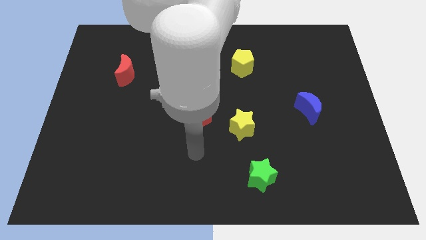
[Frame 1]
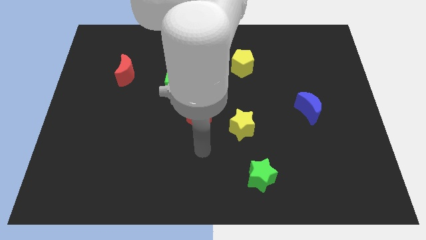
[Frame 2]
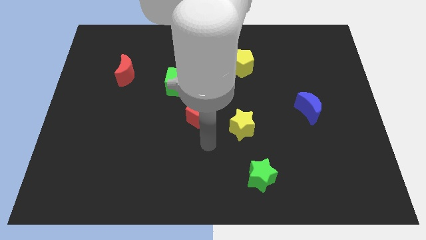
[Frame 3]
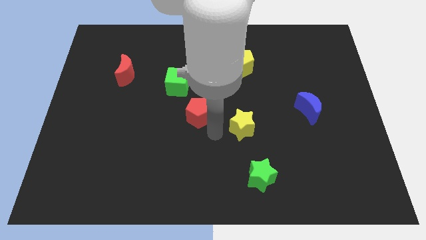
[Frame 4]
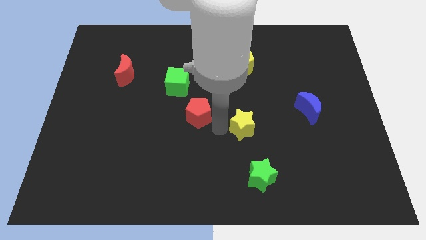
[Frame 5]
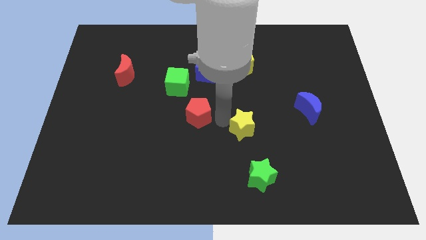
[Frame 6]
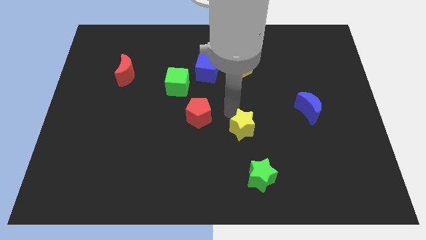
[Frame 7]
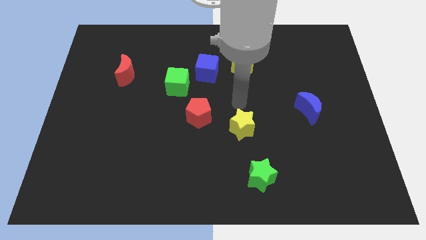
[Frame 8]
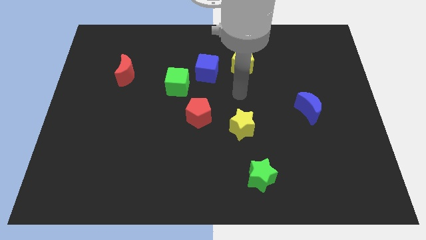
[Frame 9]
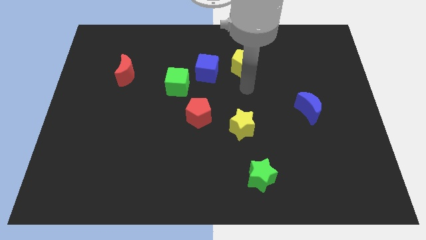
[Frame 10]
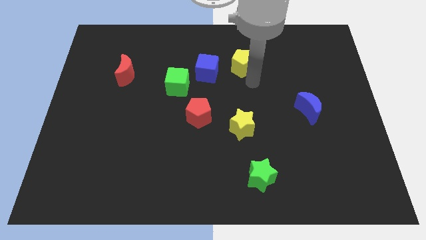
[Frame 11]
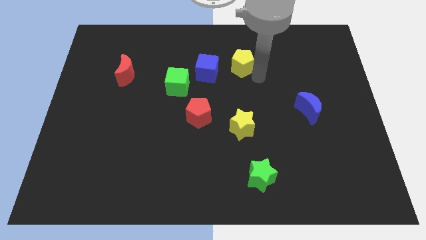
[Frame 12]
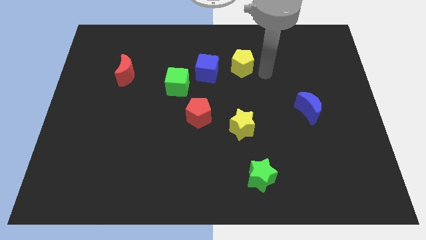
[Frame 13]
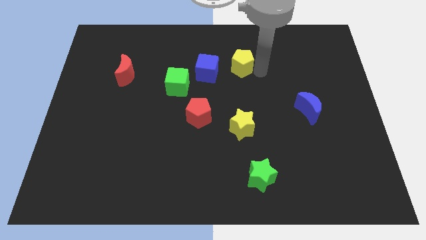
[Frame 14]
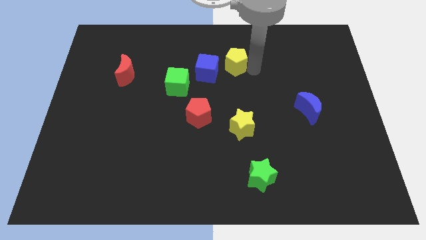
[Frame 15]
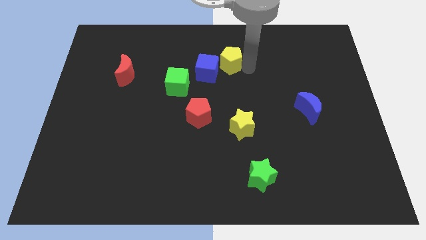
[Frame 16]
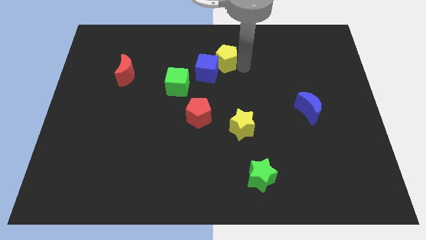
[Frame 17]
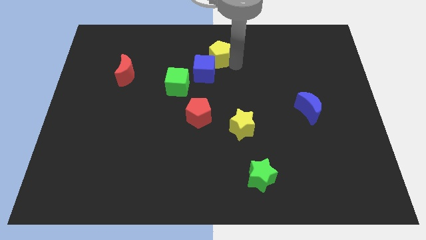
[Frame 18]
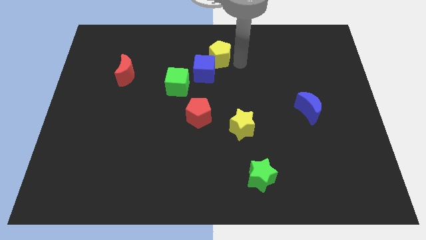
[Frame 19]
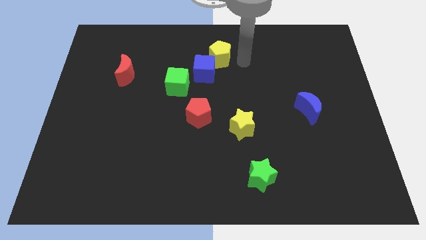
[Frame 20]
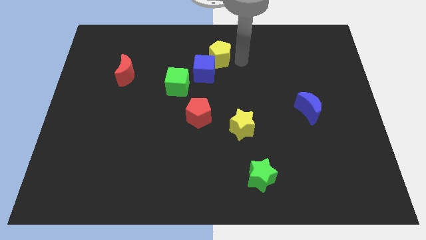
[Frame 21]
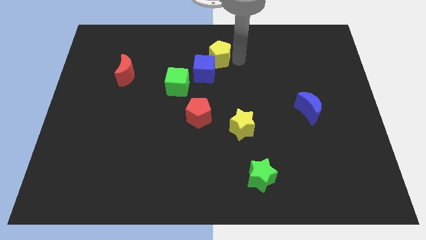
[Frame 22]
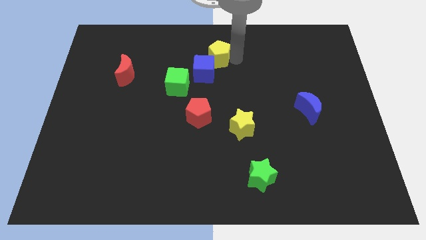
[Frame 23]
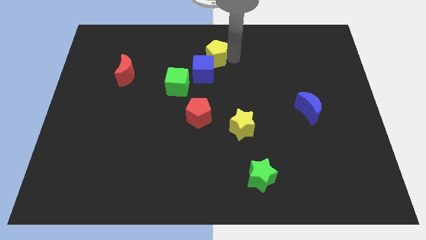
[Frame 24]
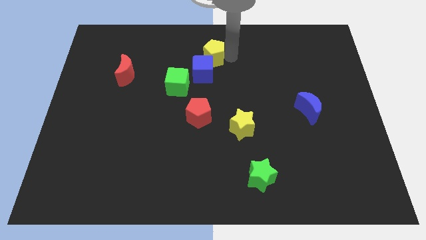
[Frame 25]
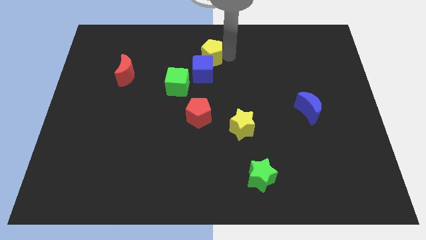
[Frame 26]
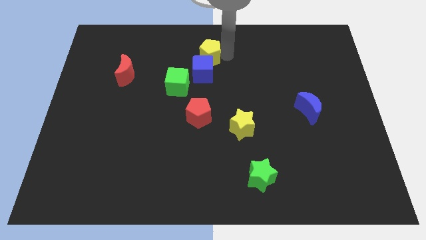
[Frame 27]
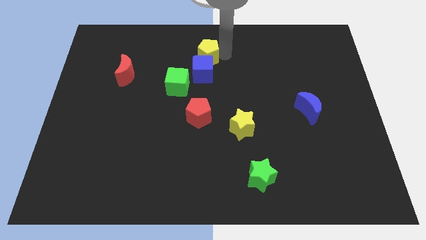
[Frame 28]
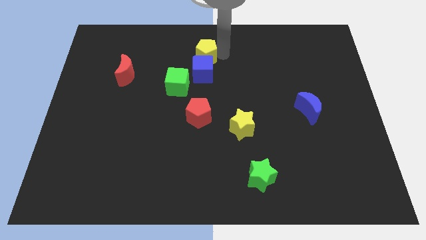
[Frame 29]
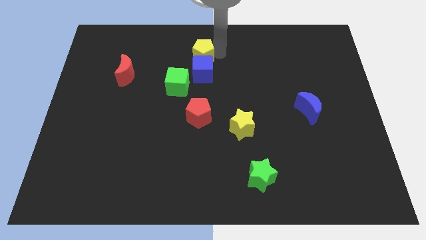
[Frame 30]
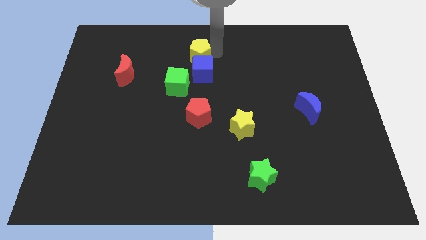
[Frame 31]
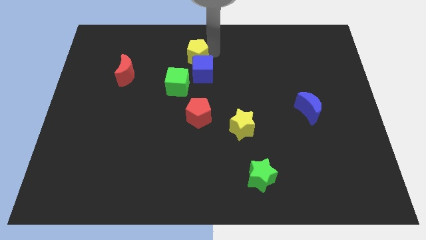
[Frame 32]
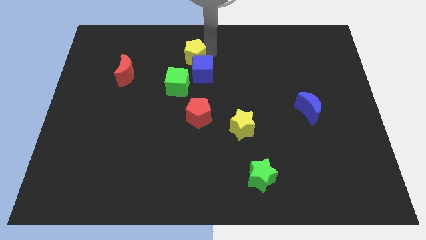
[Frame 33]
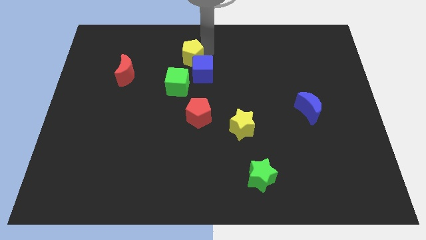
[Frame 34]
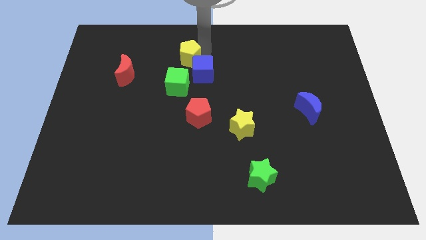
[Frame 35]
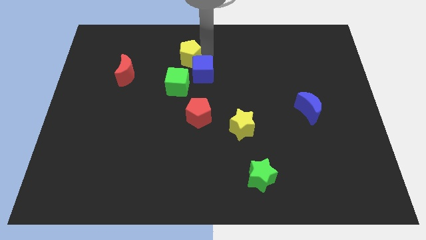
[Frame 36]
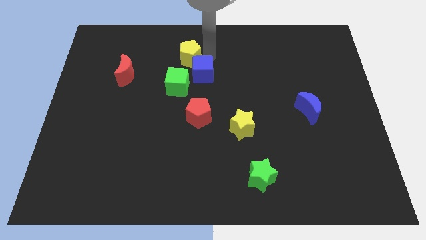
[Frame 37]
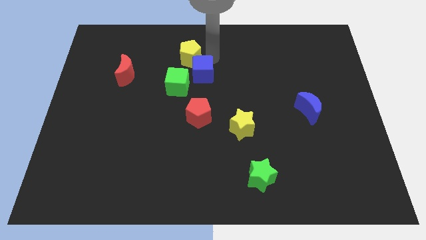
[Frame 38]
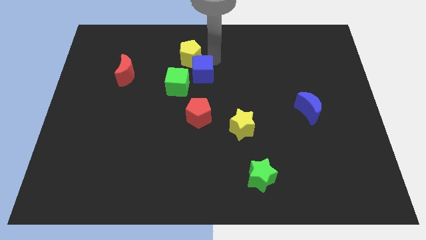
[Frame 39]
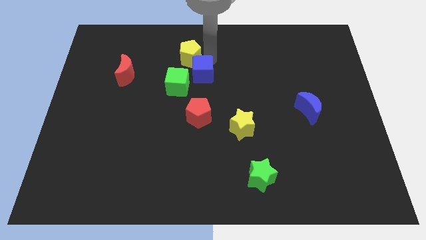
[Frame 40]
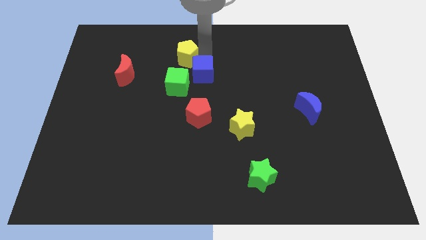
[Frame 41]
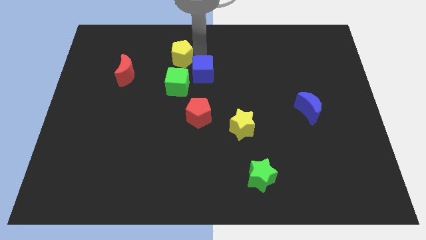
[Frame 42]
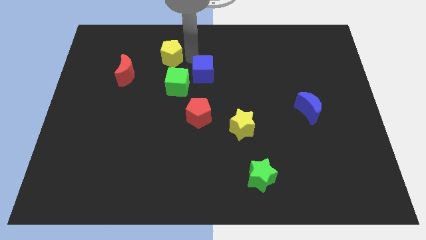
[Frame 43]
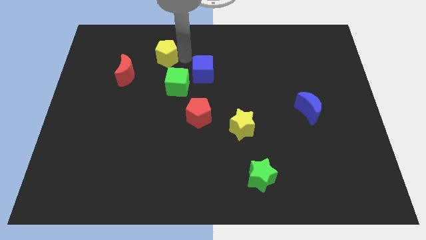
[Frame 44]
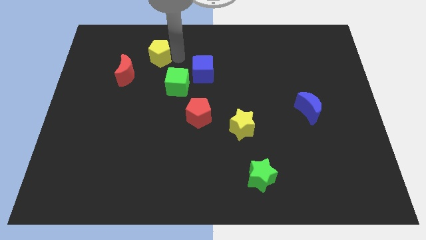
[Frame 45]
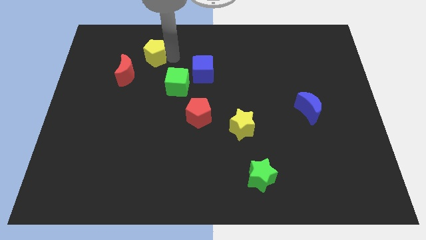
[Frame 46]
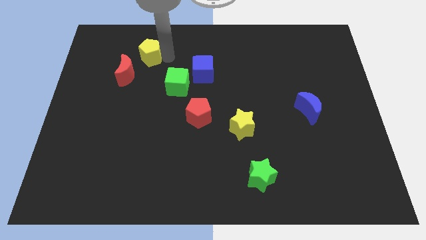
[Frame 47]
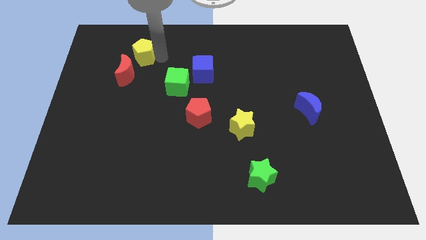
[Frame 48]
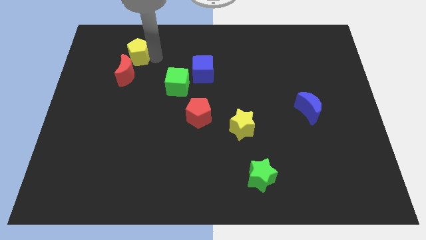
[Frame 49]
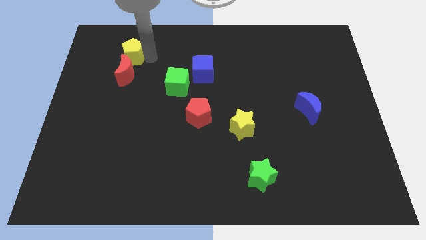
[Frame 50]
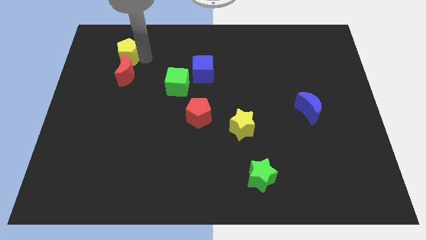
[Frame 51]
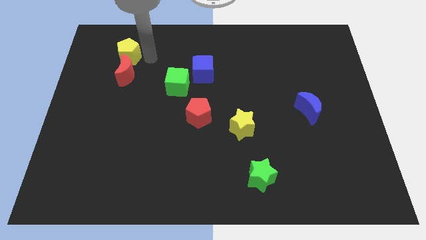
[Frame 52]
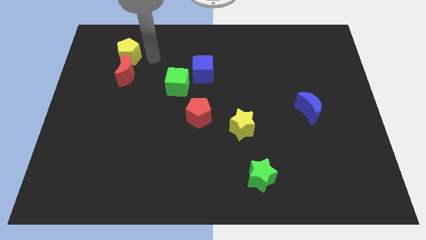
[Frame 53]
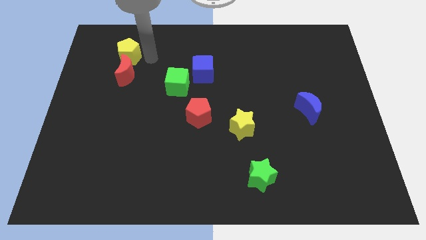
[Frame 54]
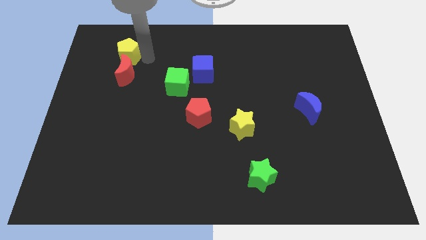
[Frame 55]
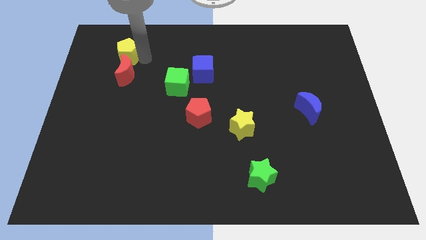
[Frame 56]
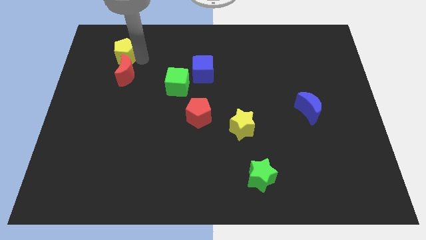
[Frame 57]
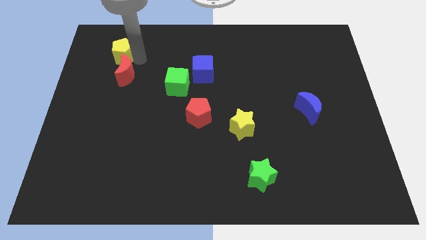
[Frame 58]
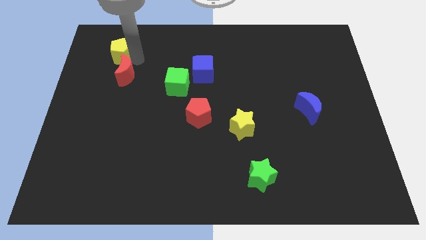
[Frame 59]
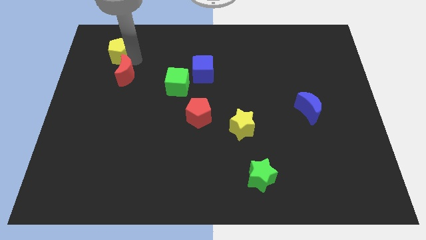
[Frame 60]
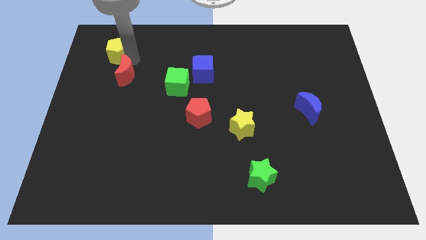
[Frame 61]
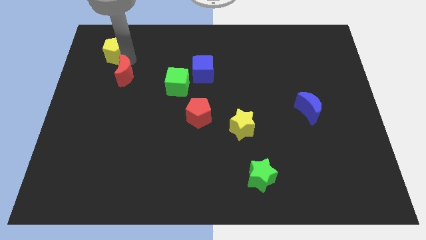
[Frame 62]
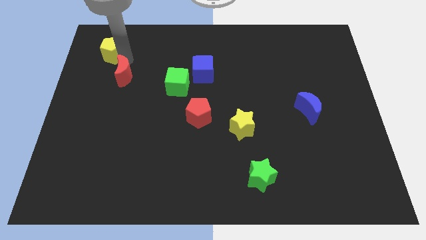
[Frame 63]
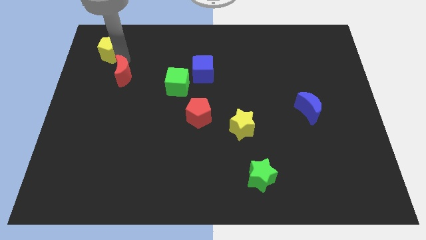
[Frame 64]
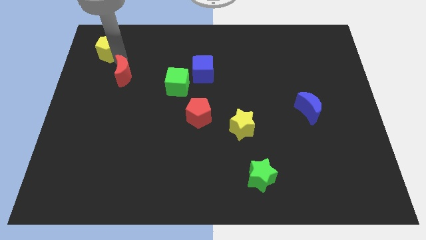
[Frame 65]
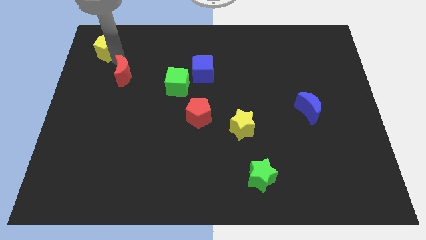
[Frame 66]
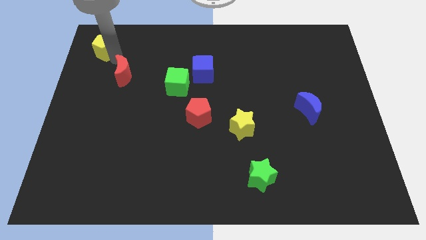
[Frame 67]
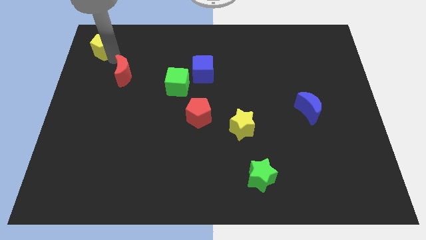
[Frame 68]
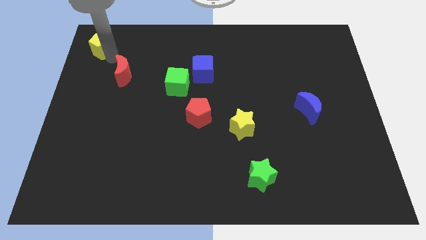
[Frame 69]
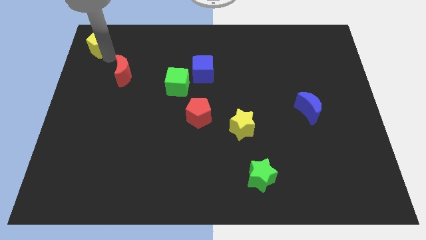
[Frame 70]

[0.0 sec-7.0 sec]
slide the yellow pentagon to the upper left corner

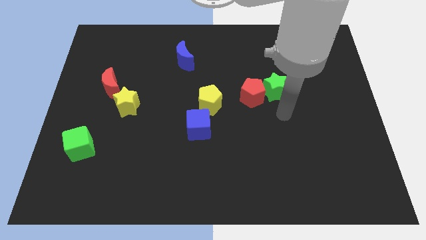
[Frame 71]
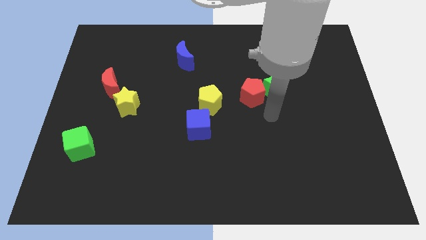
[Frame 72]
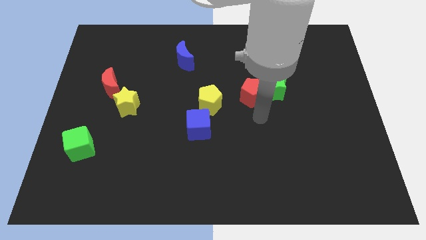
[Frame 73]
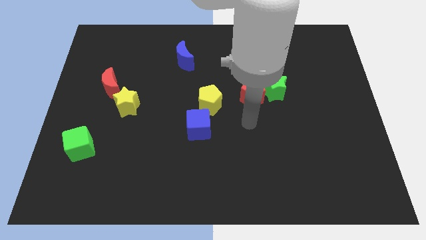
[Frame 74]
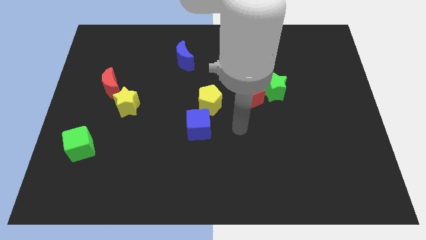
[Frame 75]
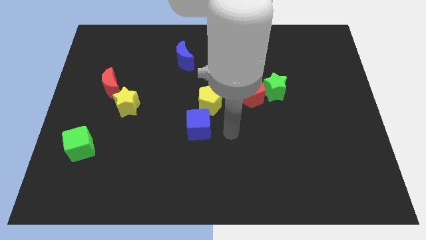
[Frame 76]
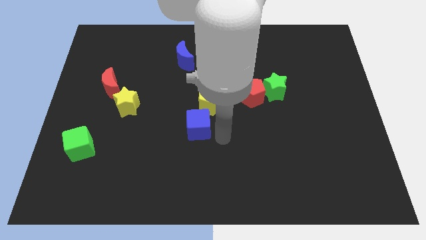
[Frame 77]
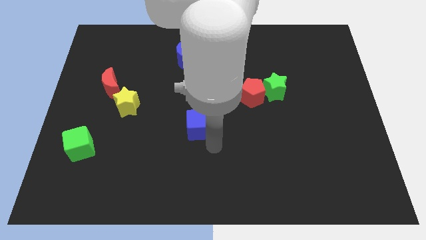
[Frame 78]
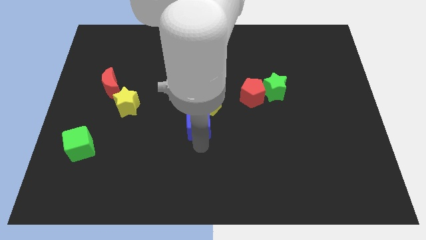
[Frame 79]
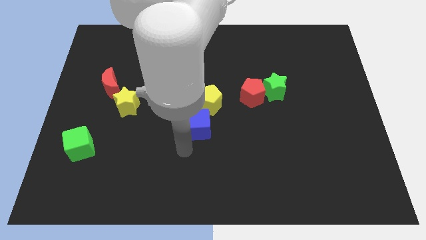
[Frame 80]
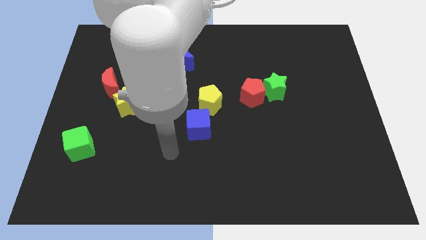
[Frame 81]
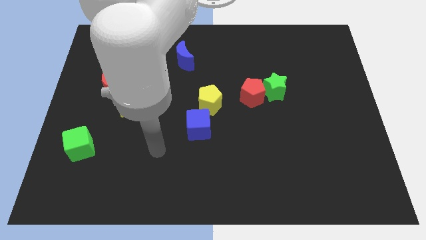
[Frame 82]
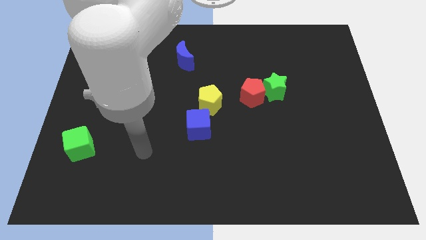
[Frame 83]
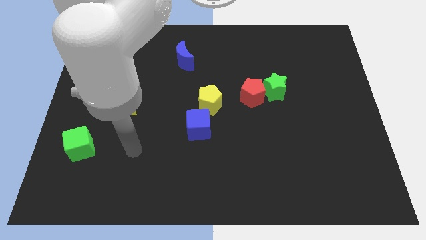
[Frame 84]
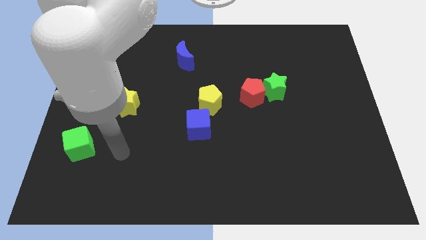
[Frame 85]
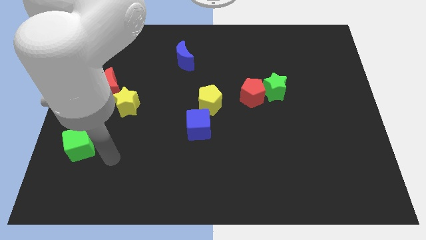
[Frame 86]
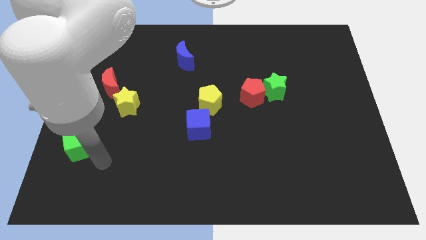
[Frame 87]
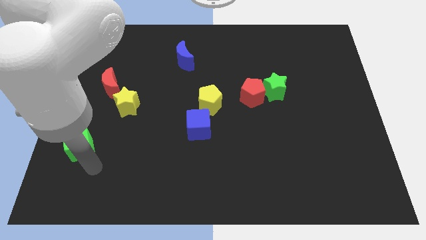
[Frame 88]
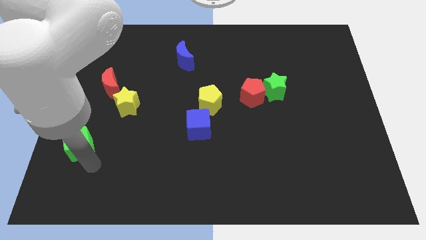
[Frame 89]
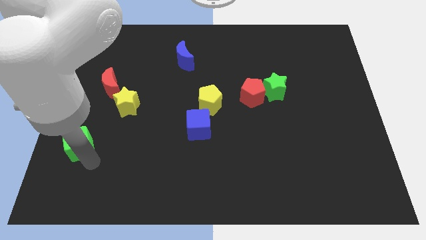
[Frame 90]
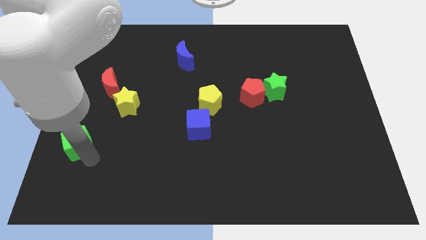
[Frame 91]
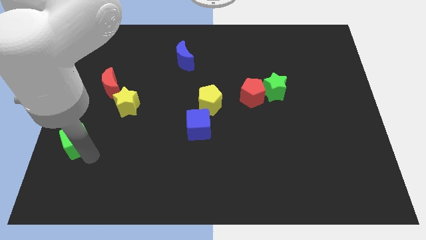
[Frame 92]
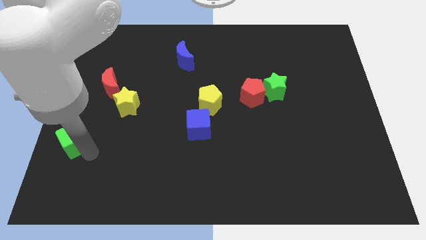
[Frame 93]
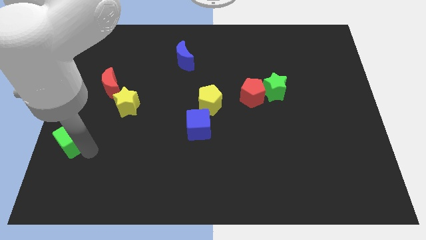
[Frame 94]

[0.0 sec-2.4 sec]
slide the green cube to the left side
